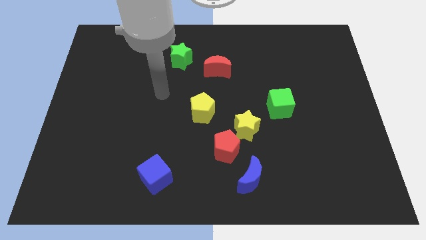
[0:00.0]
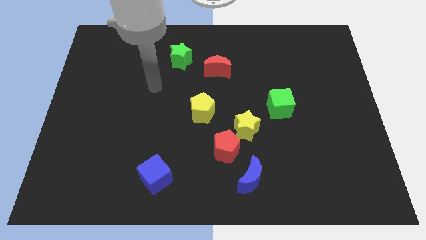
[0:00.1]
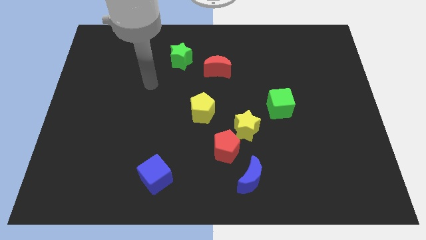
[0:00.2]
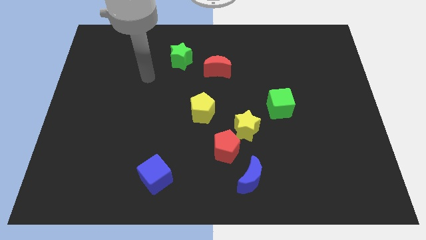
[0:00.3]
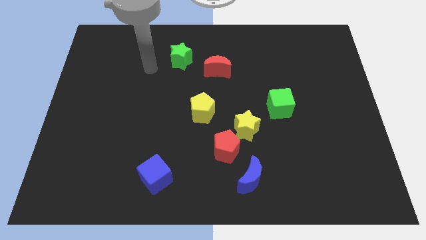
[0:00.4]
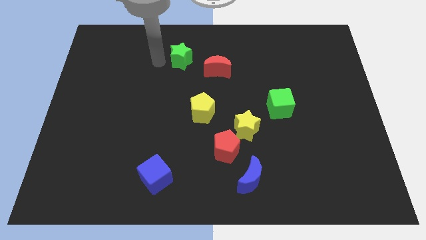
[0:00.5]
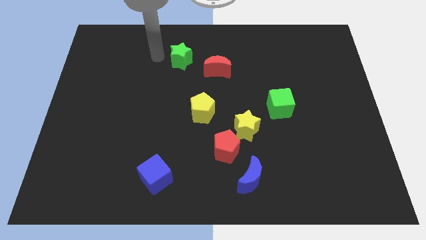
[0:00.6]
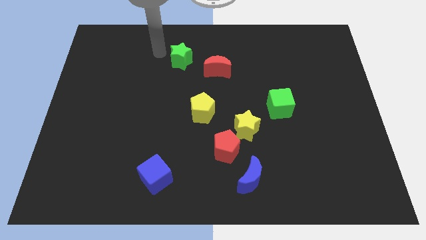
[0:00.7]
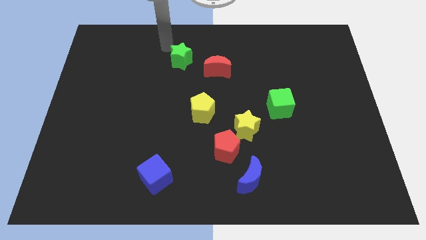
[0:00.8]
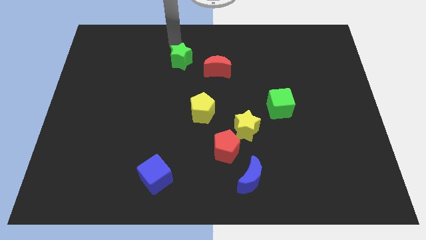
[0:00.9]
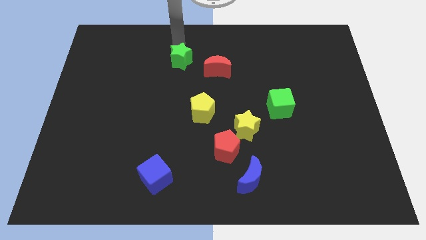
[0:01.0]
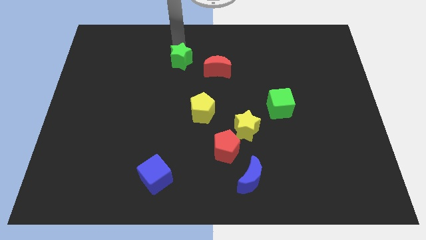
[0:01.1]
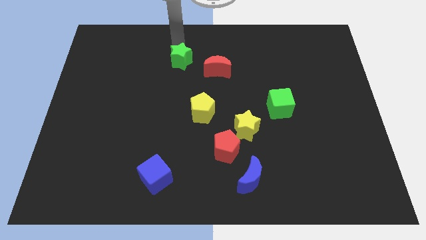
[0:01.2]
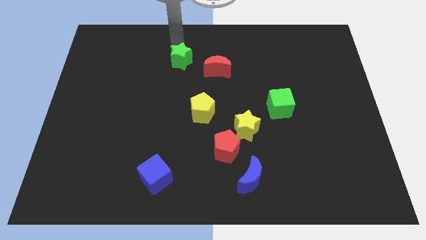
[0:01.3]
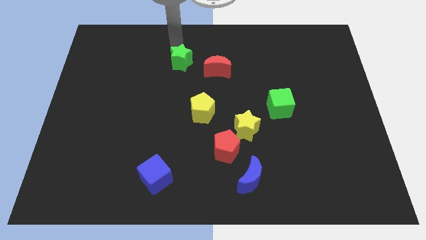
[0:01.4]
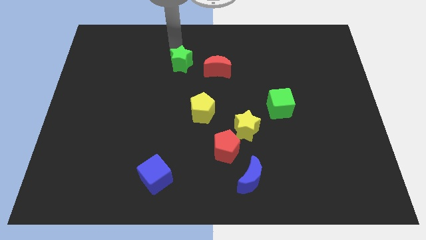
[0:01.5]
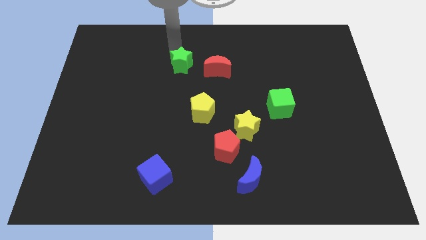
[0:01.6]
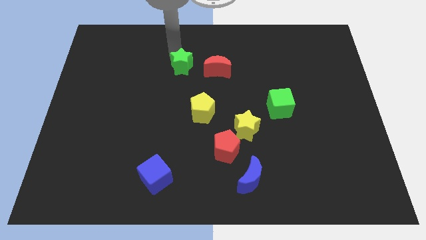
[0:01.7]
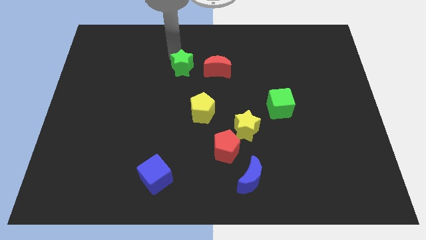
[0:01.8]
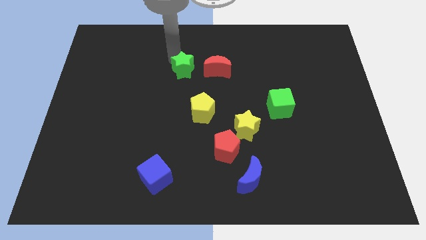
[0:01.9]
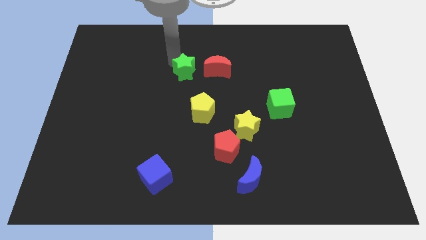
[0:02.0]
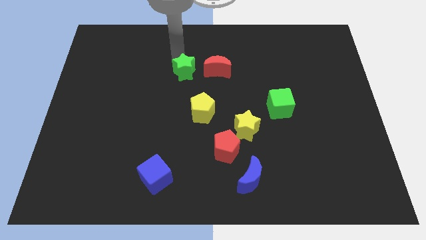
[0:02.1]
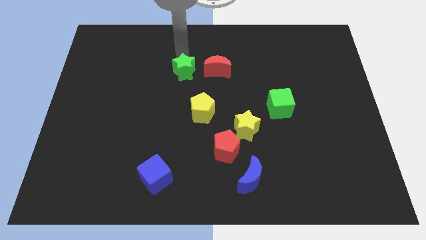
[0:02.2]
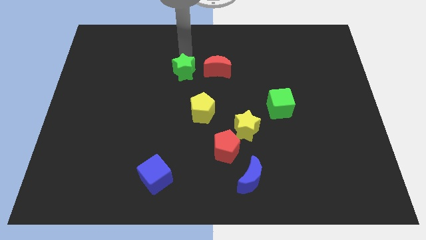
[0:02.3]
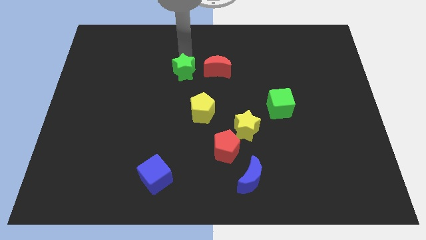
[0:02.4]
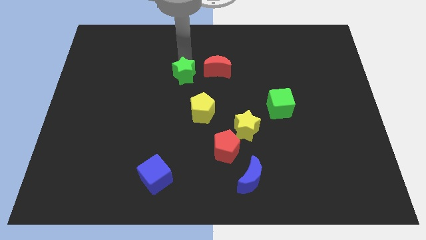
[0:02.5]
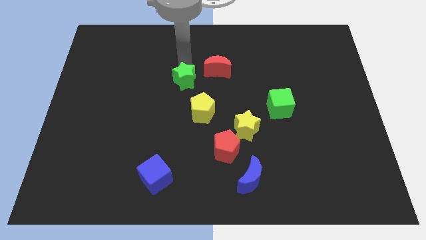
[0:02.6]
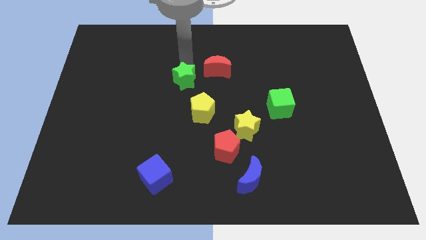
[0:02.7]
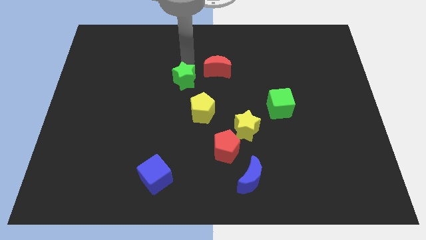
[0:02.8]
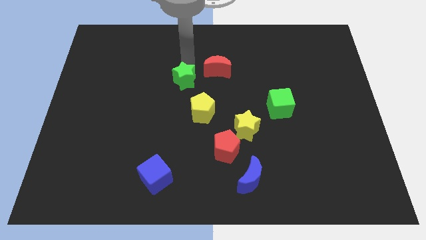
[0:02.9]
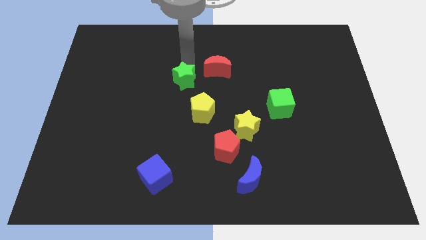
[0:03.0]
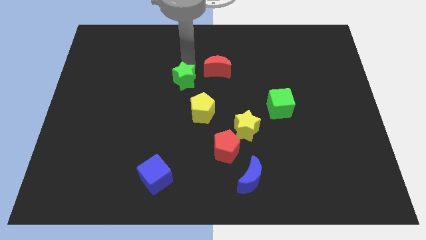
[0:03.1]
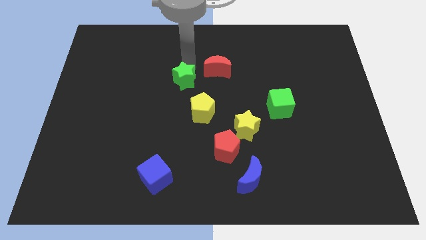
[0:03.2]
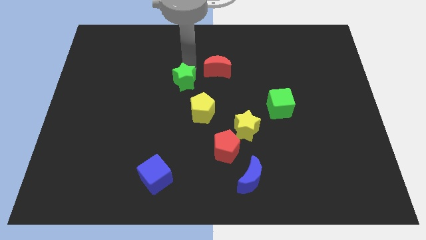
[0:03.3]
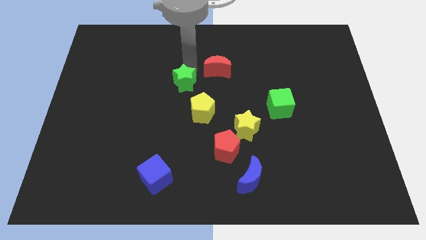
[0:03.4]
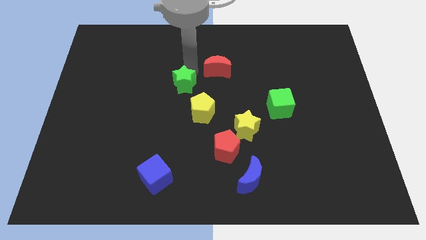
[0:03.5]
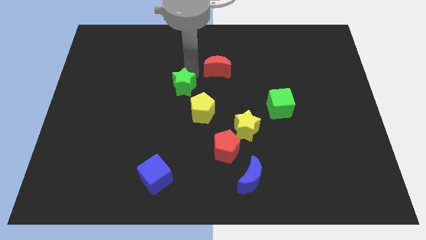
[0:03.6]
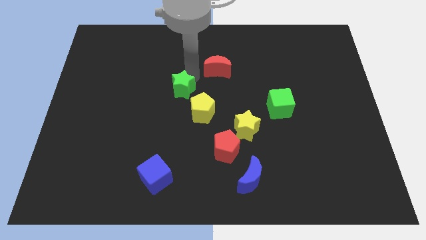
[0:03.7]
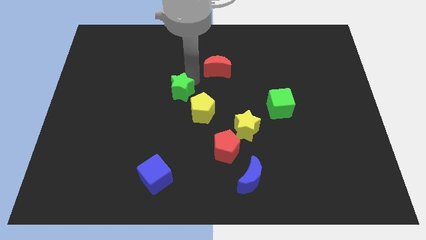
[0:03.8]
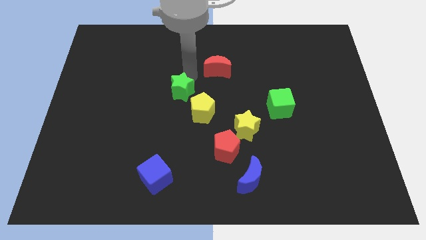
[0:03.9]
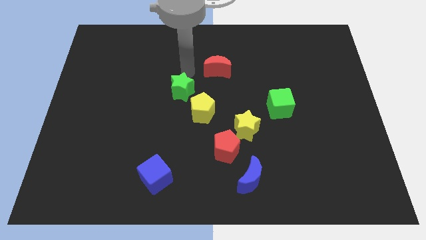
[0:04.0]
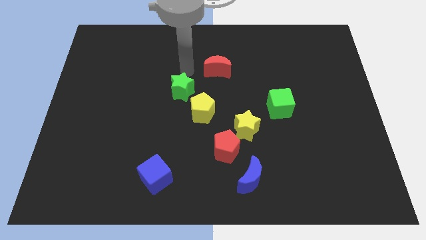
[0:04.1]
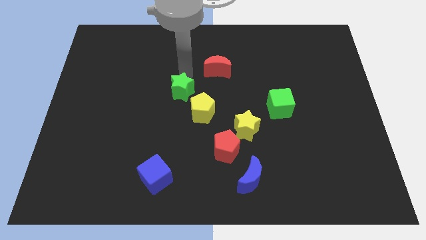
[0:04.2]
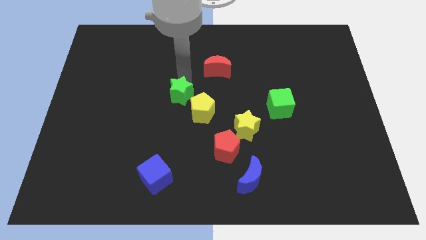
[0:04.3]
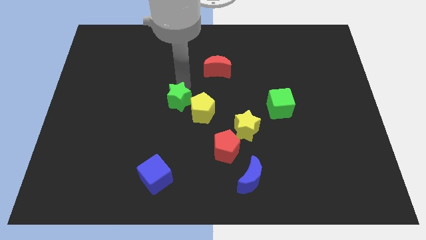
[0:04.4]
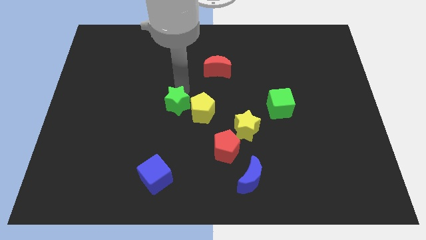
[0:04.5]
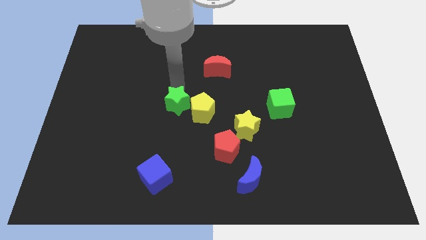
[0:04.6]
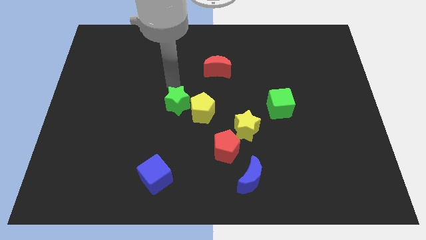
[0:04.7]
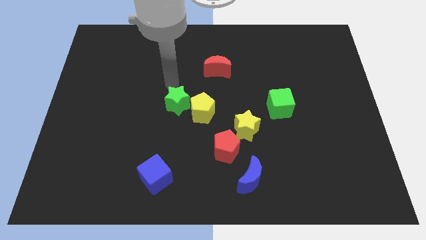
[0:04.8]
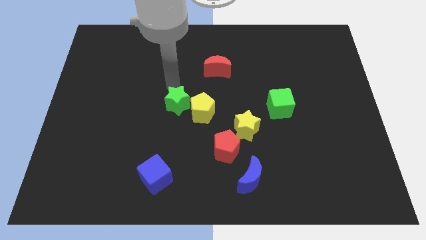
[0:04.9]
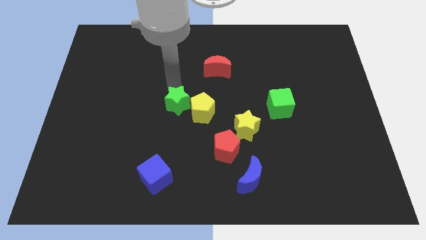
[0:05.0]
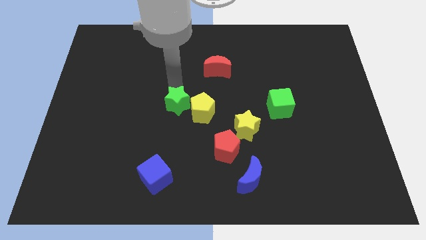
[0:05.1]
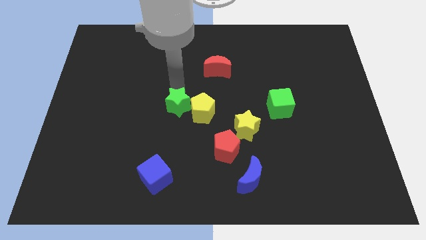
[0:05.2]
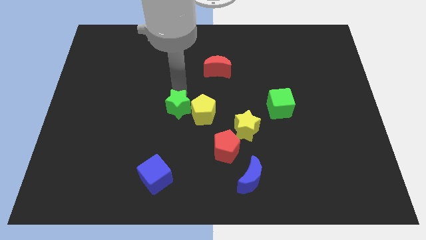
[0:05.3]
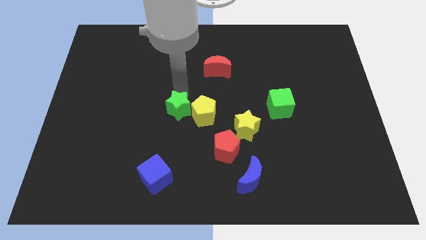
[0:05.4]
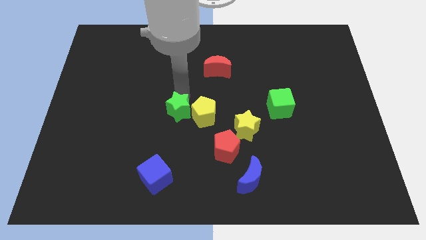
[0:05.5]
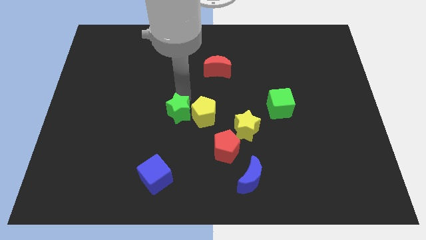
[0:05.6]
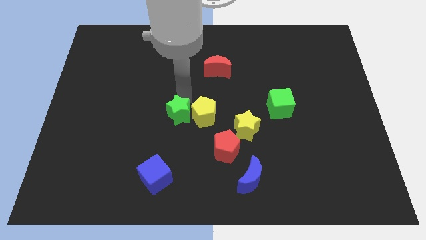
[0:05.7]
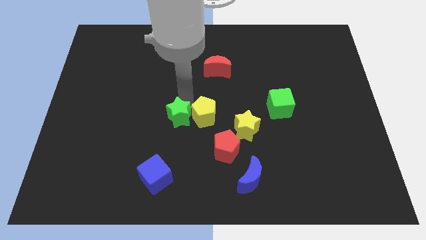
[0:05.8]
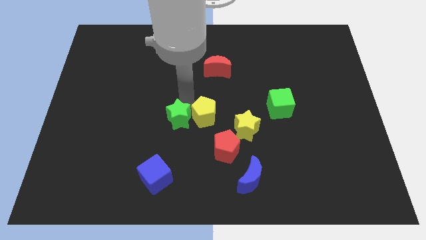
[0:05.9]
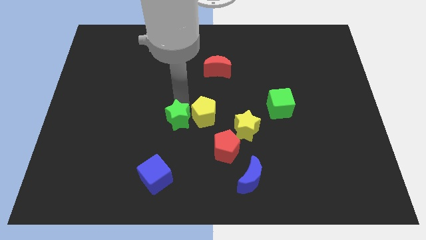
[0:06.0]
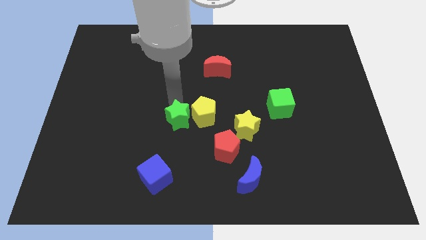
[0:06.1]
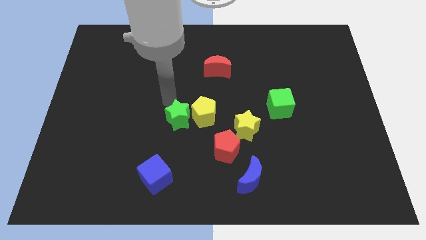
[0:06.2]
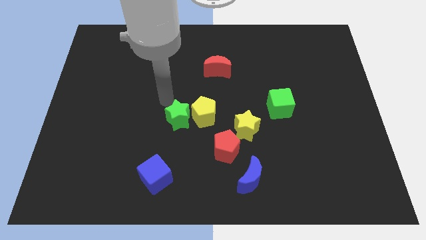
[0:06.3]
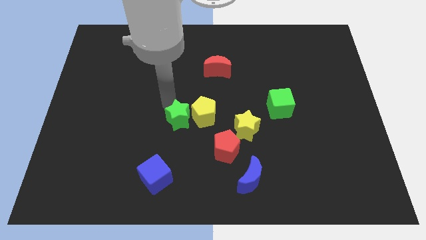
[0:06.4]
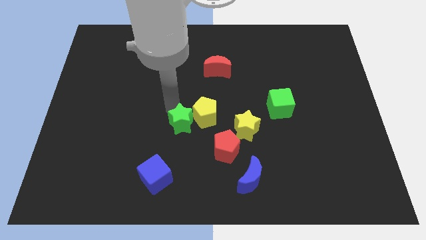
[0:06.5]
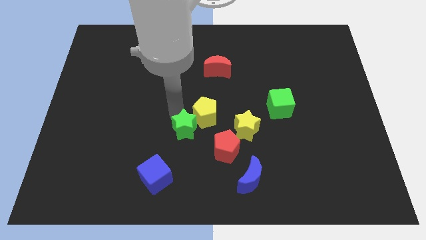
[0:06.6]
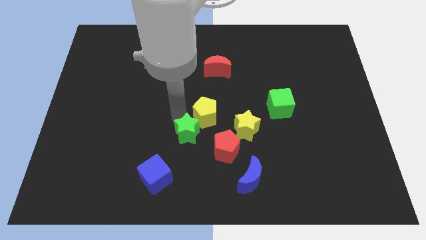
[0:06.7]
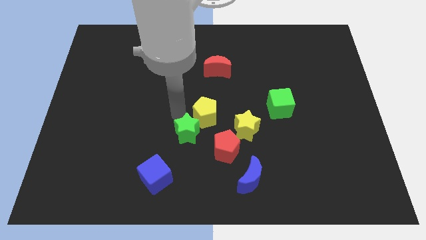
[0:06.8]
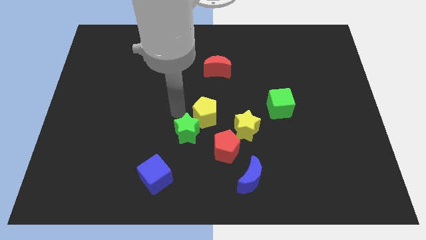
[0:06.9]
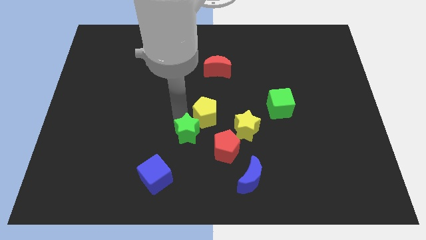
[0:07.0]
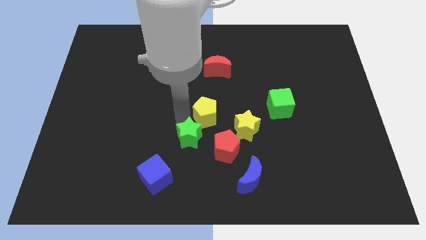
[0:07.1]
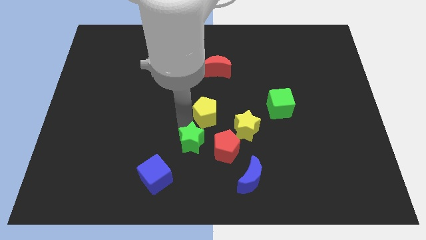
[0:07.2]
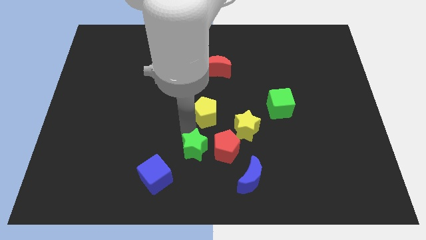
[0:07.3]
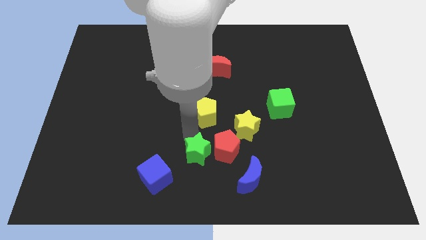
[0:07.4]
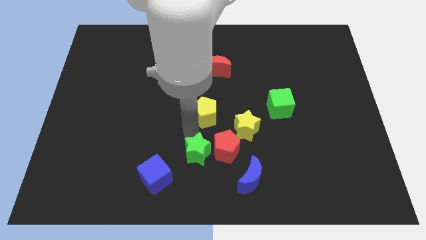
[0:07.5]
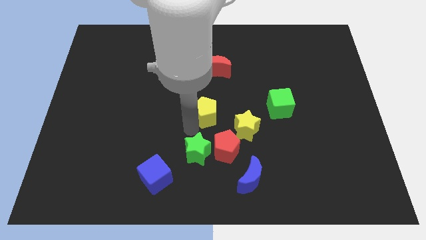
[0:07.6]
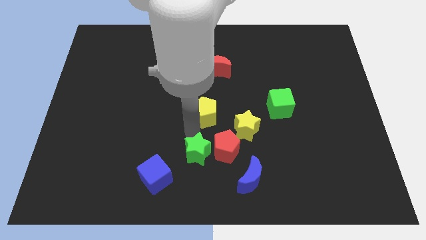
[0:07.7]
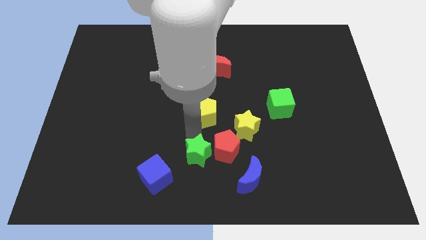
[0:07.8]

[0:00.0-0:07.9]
put the green star to the bottom
